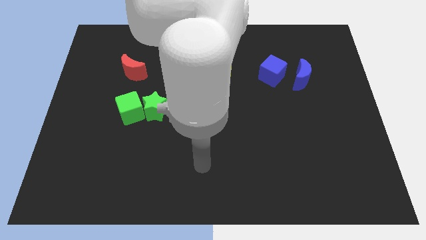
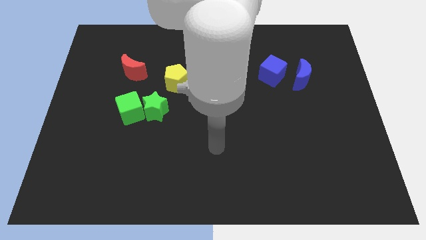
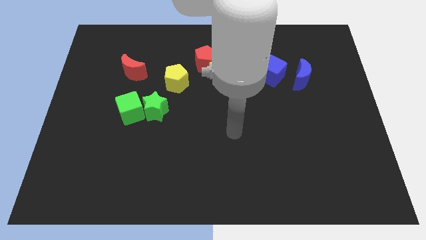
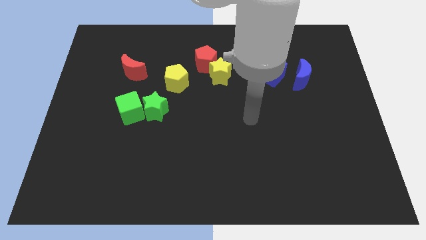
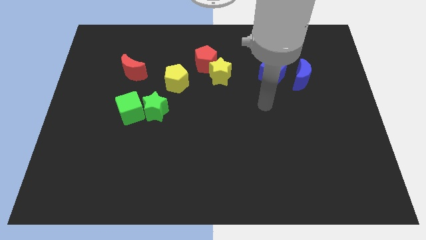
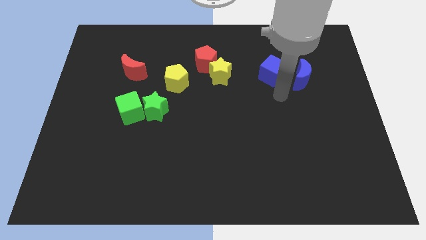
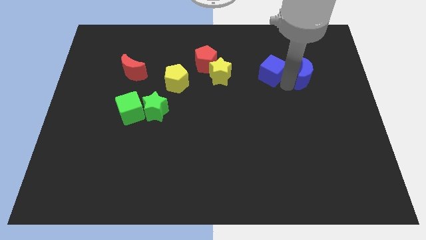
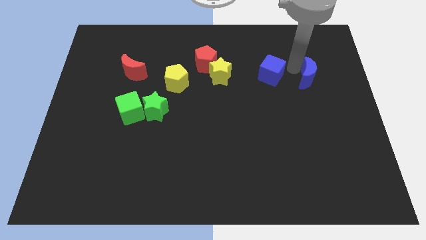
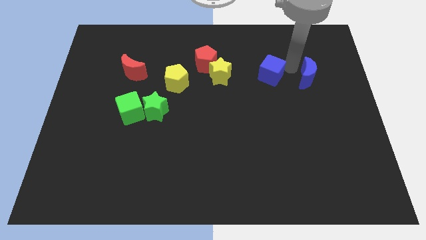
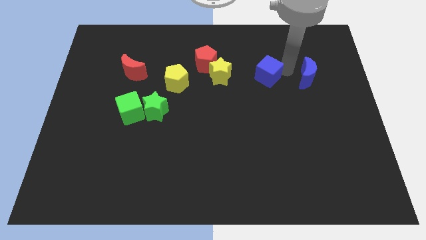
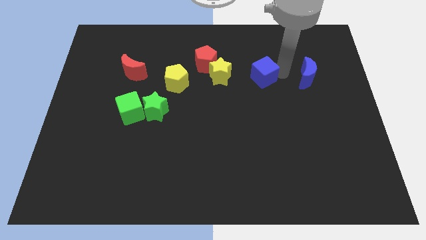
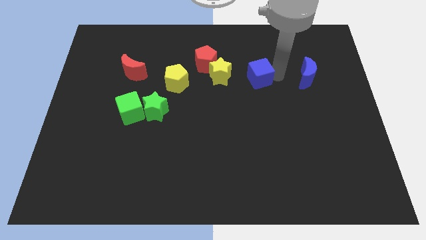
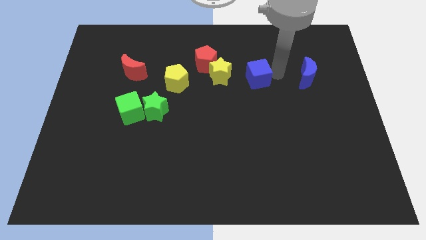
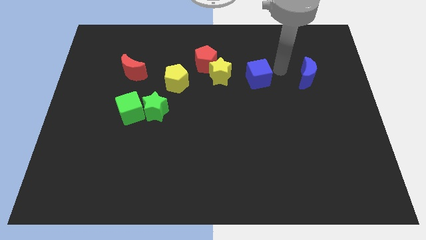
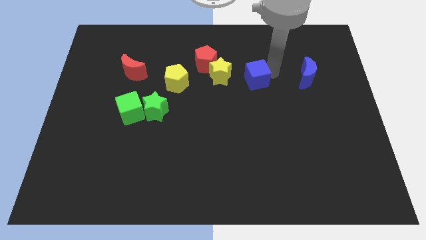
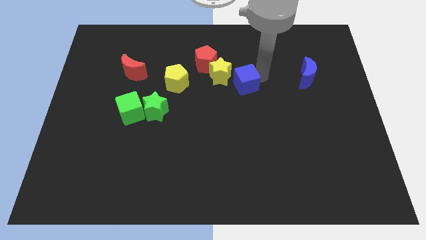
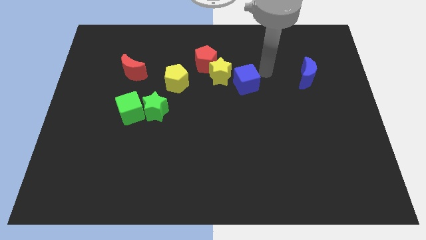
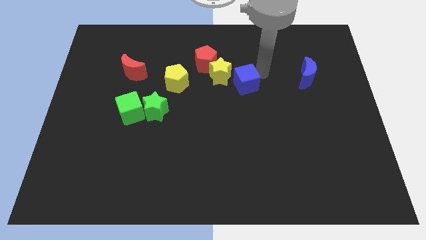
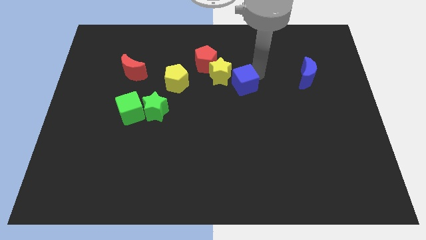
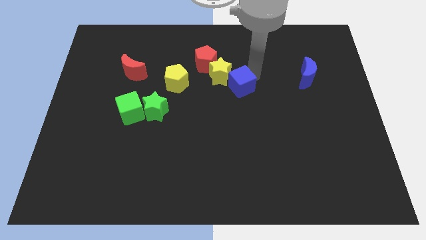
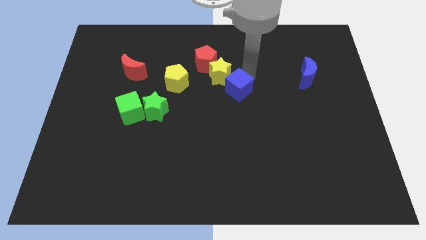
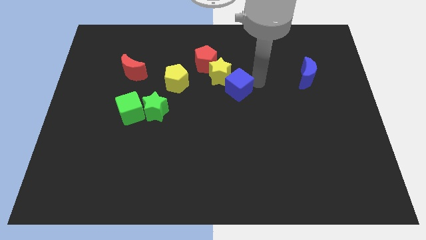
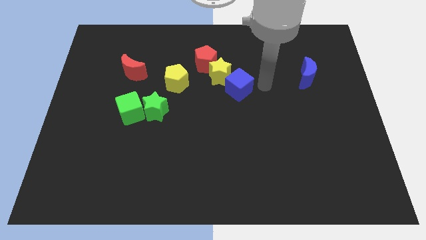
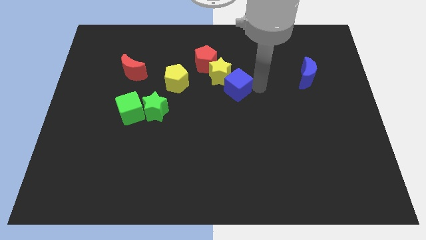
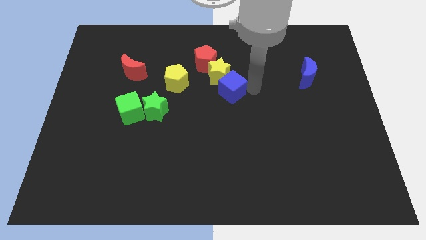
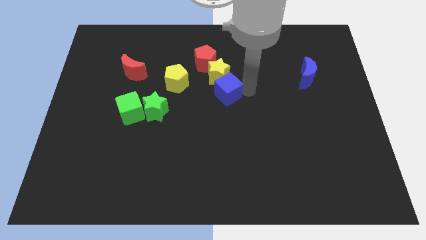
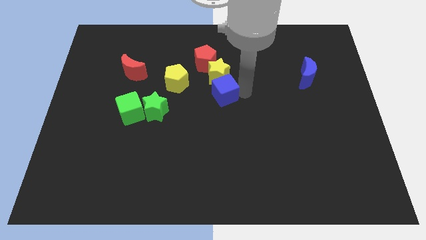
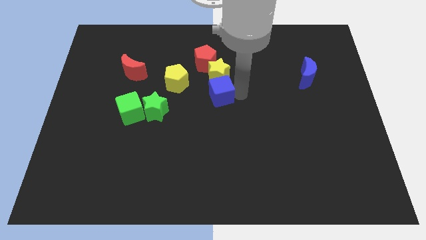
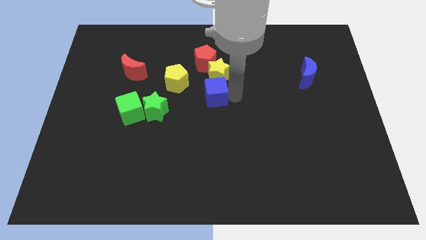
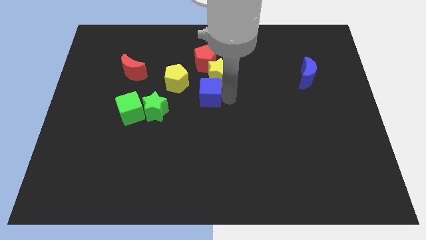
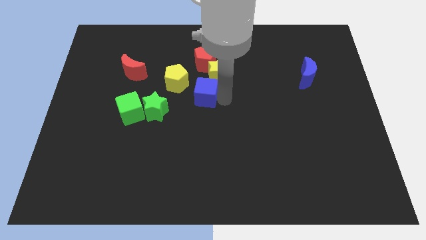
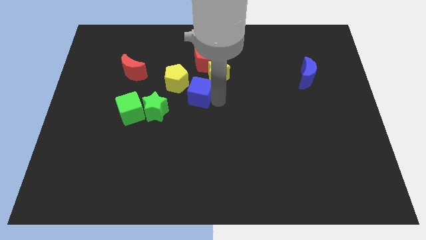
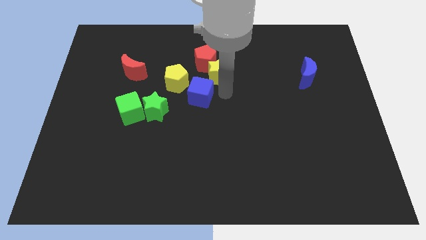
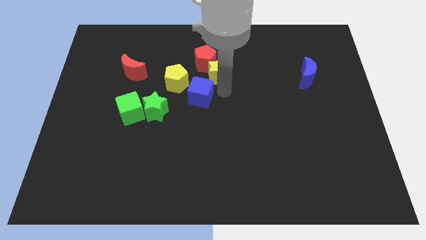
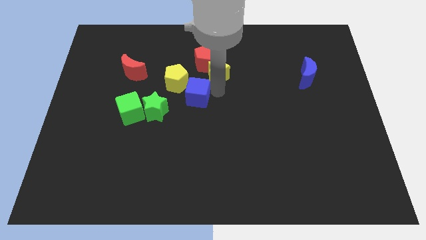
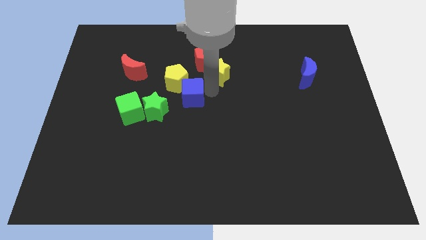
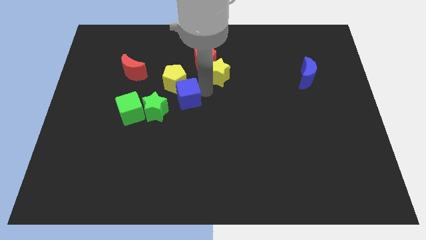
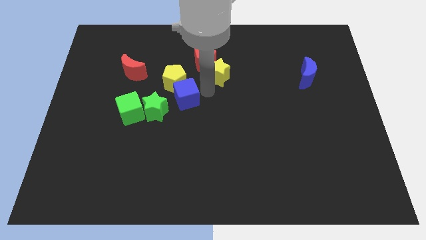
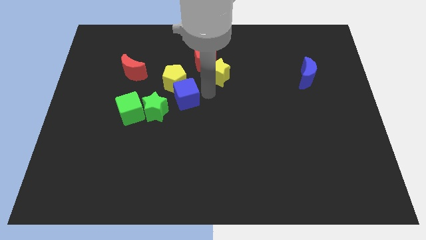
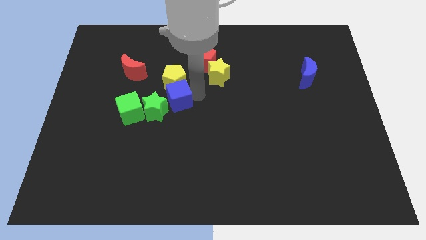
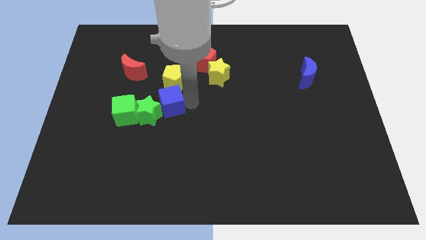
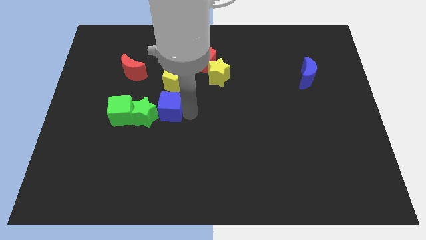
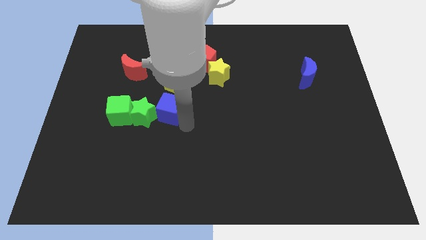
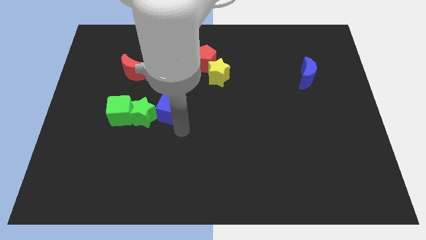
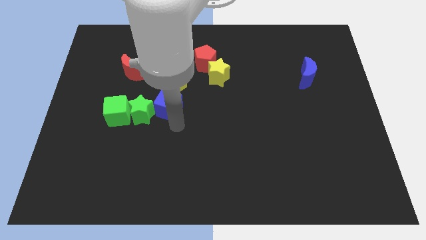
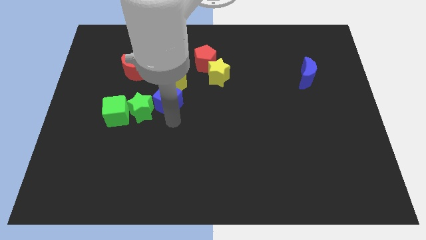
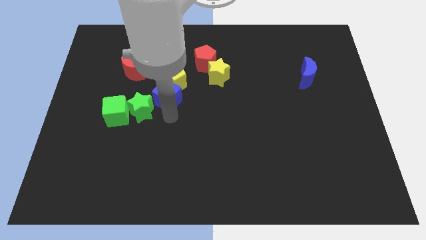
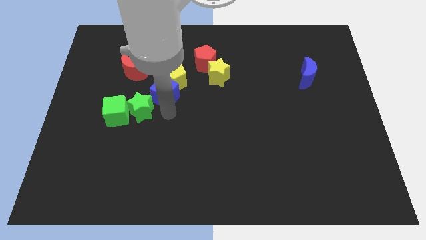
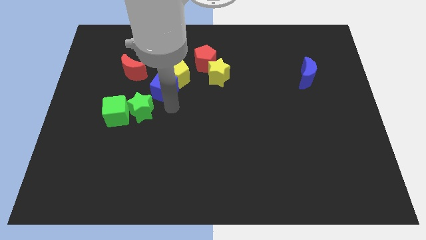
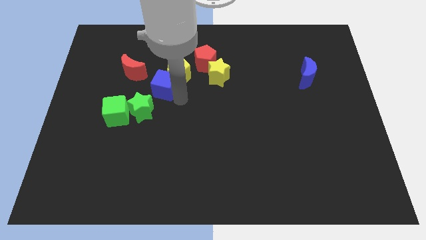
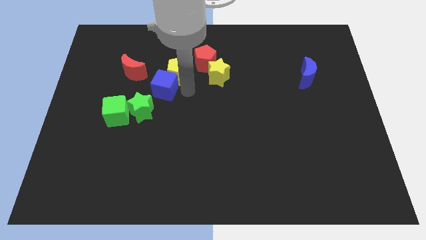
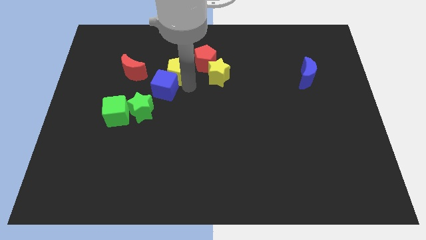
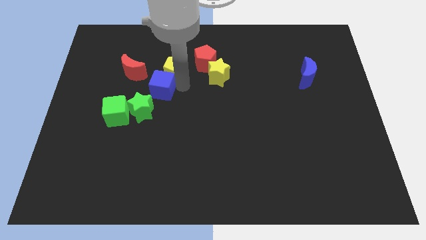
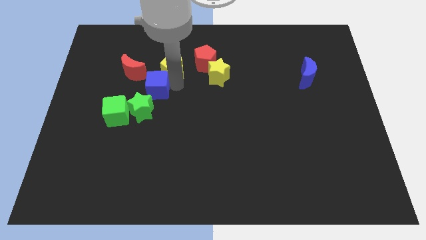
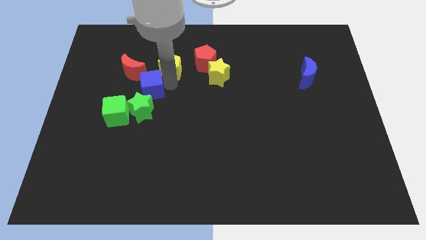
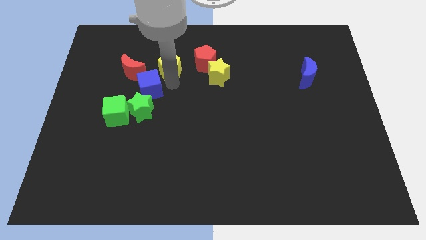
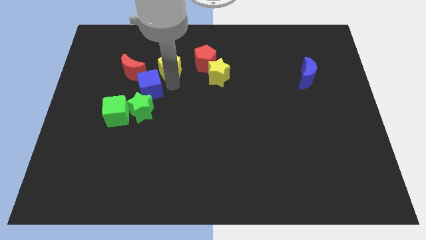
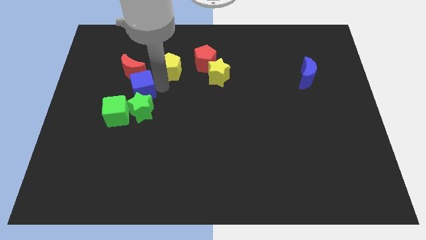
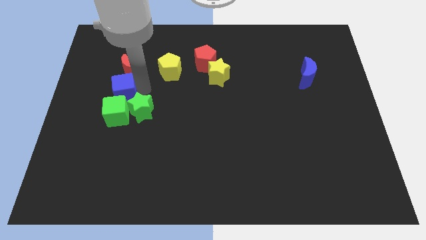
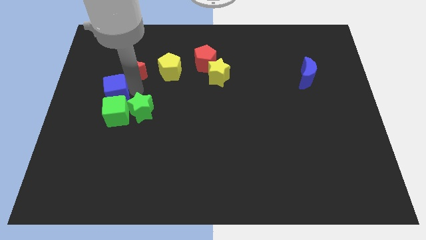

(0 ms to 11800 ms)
push the blue cube to the top left of the green cube

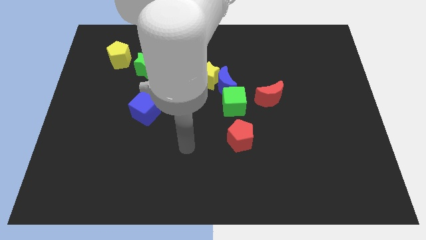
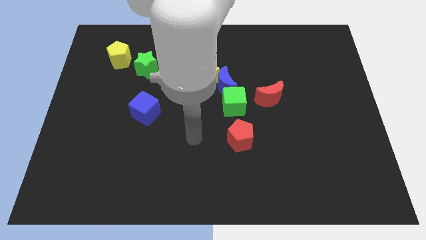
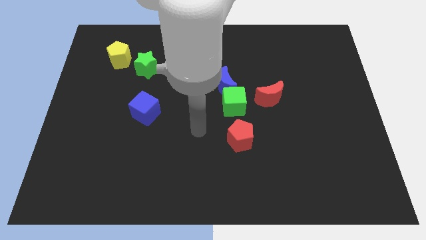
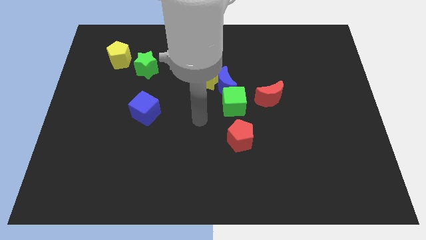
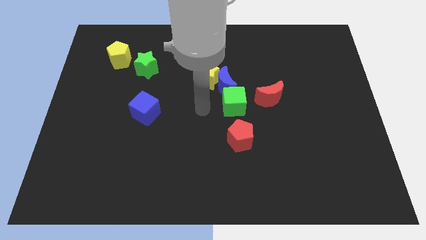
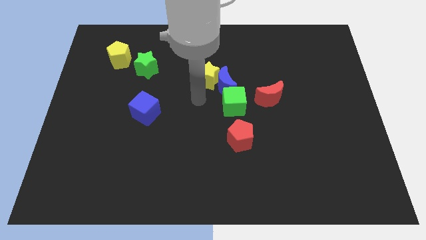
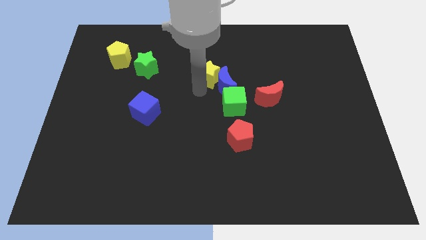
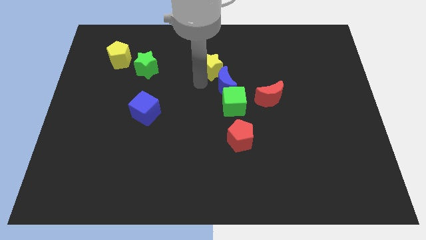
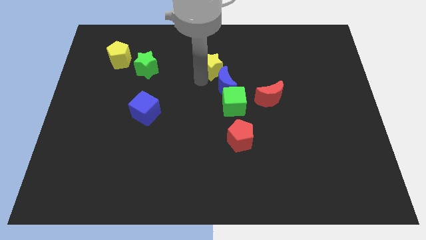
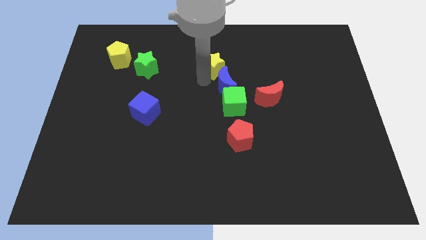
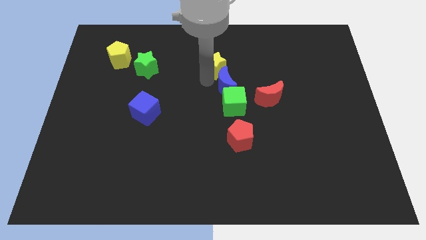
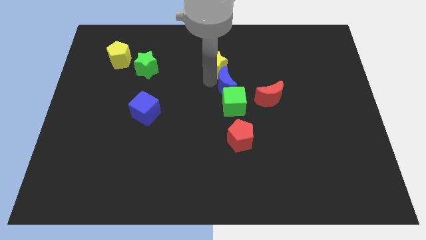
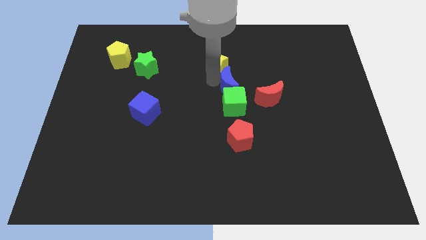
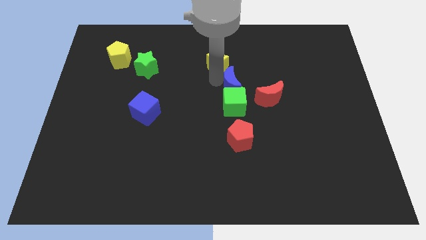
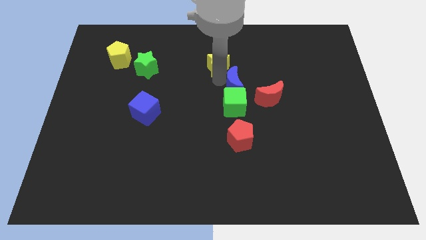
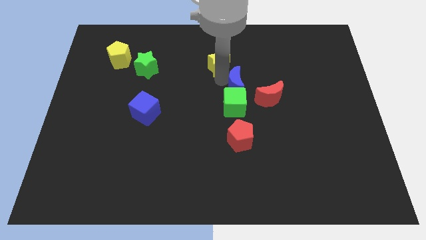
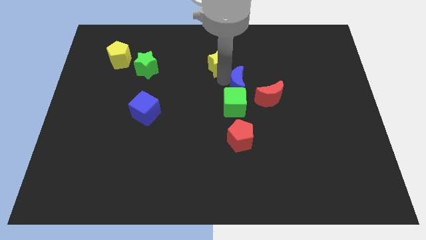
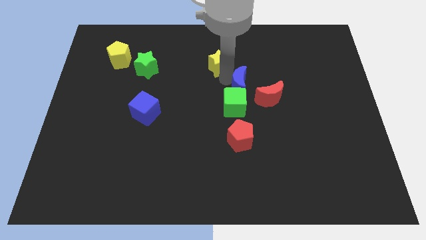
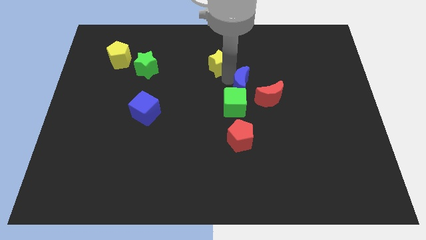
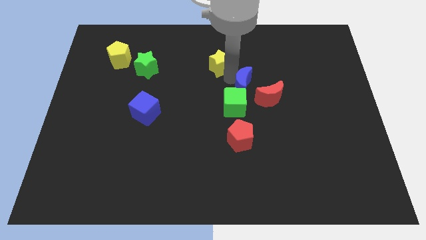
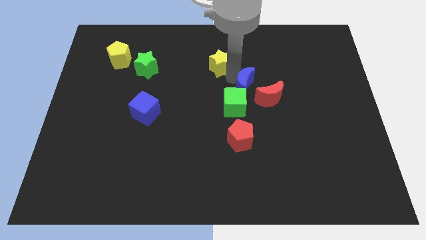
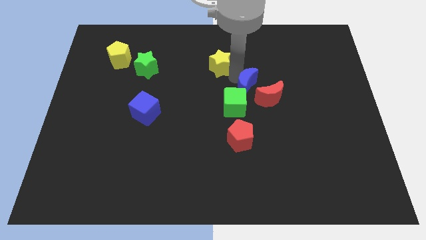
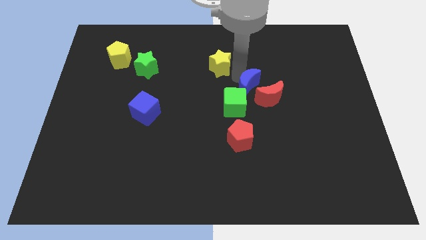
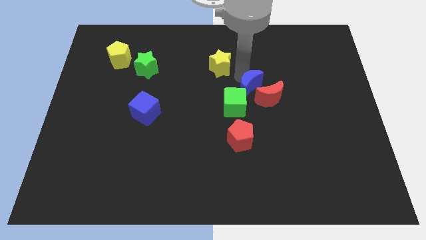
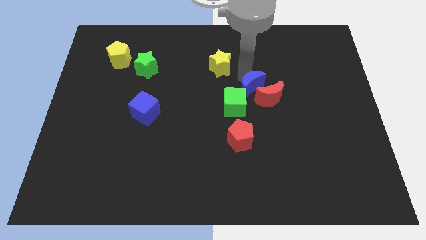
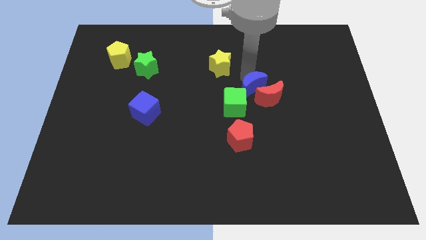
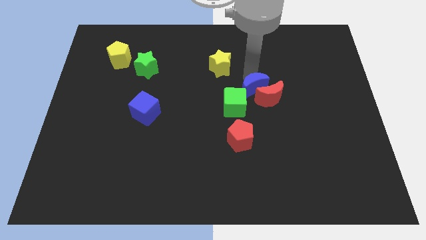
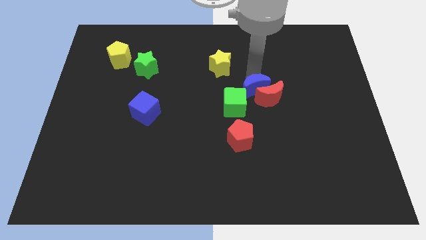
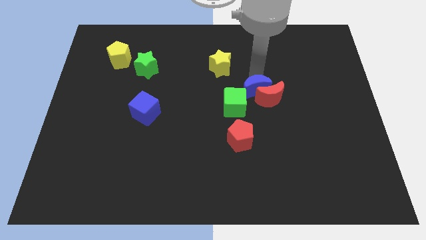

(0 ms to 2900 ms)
put the blue moon to the right of the green cube
